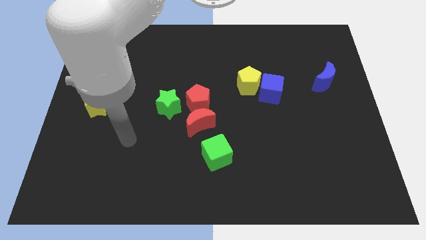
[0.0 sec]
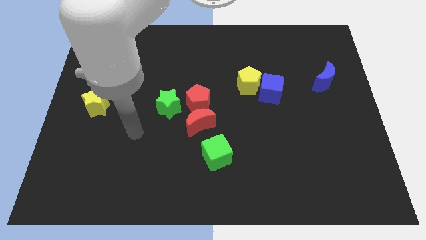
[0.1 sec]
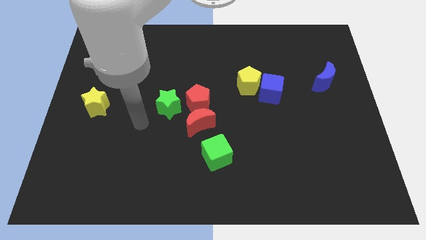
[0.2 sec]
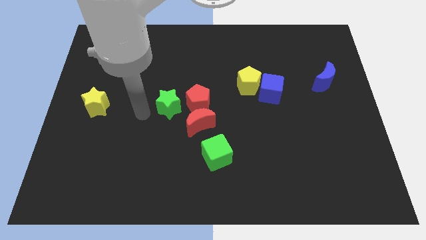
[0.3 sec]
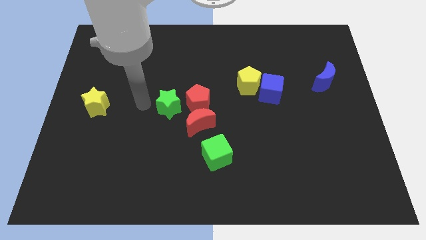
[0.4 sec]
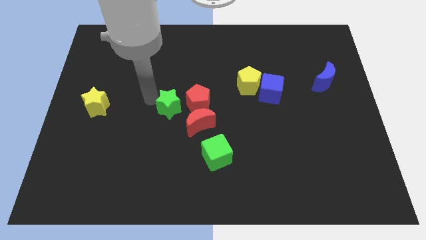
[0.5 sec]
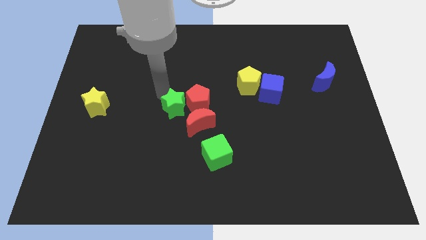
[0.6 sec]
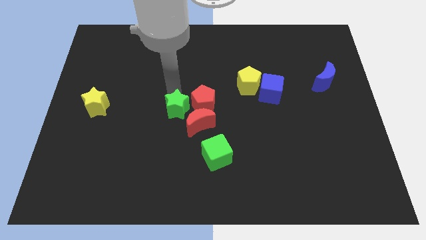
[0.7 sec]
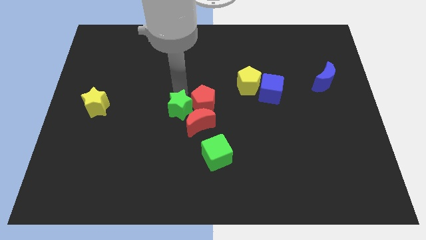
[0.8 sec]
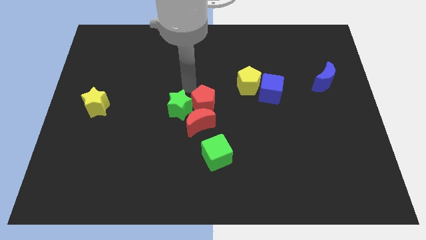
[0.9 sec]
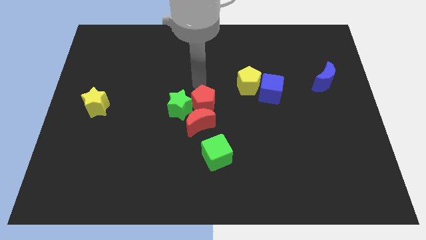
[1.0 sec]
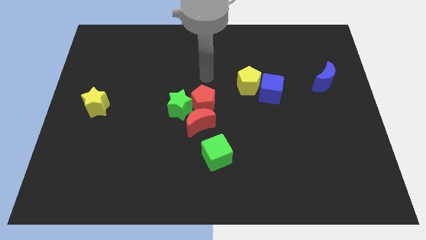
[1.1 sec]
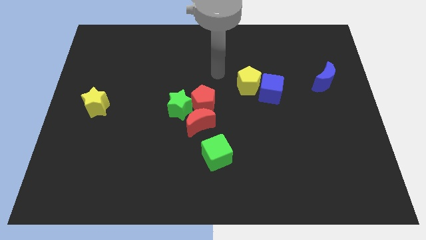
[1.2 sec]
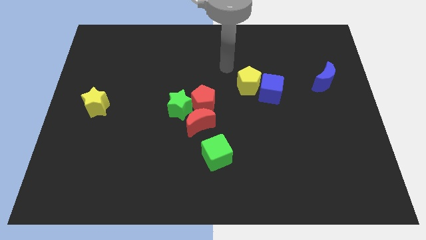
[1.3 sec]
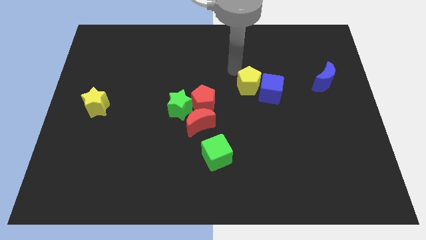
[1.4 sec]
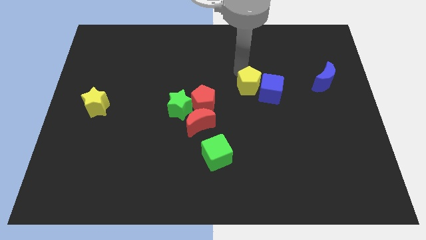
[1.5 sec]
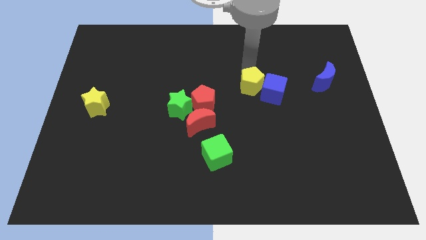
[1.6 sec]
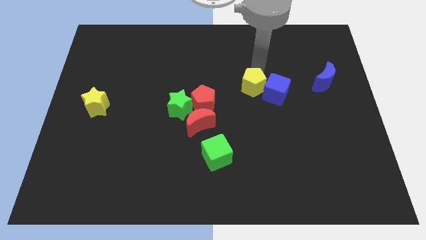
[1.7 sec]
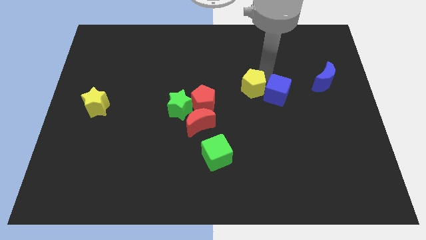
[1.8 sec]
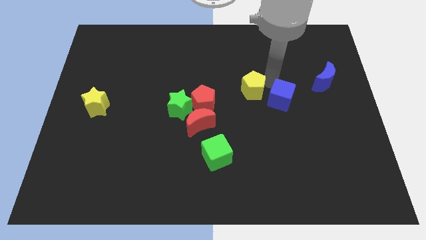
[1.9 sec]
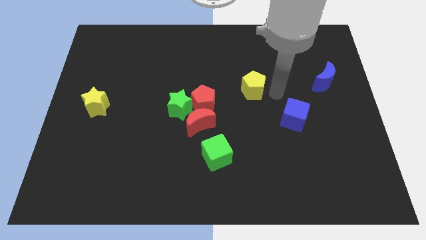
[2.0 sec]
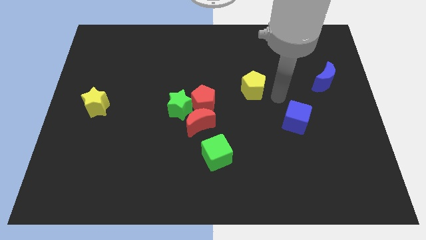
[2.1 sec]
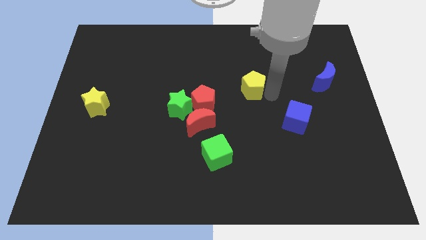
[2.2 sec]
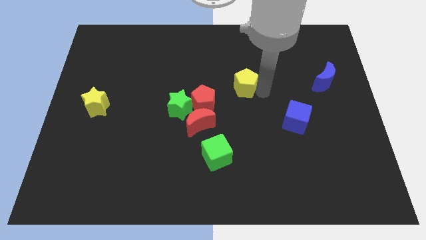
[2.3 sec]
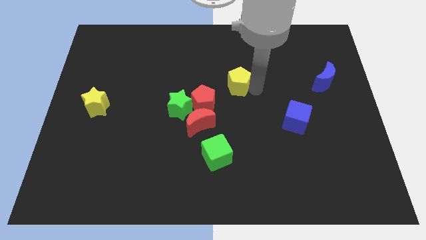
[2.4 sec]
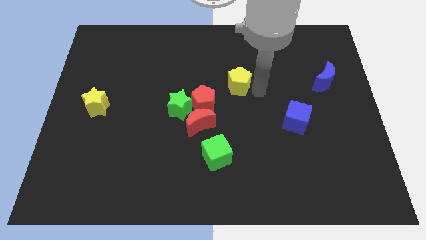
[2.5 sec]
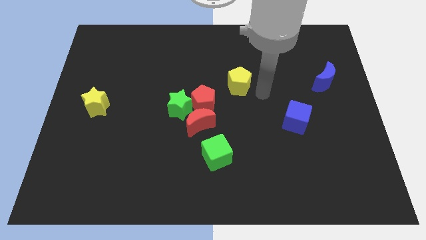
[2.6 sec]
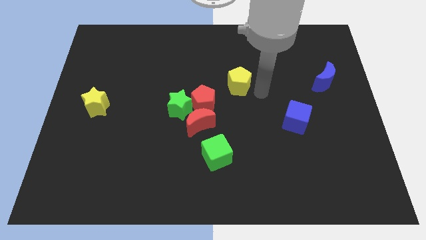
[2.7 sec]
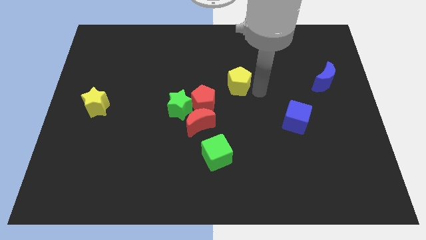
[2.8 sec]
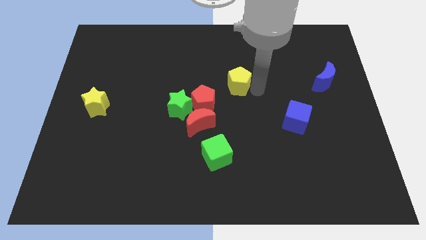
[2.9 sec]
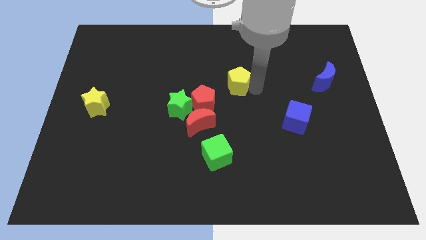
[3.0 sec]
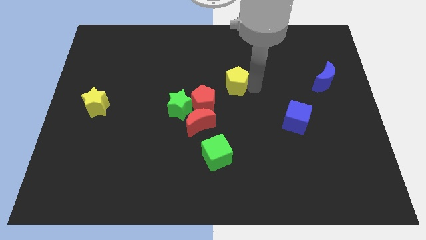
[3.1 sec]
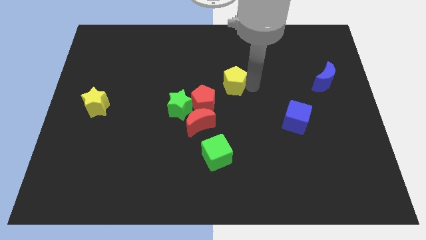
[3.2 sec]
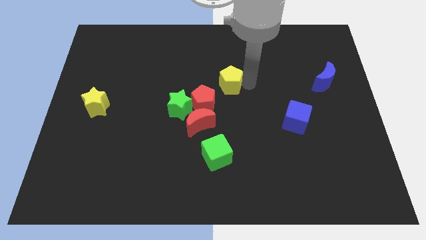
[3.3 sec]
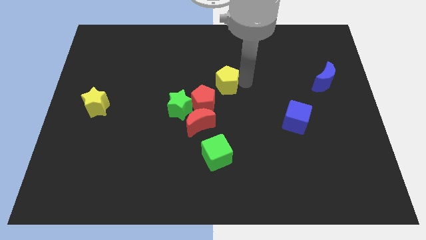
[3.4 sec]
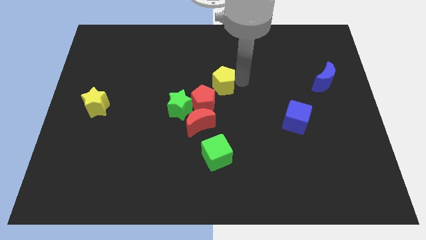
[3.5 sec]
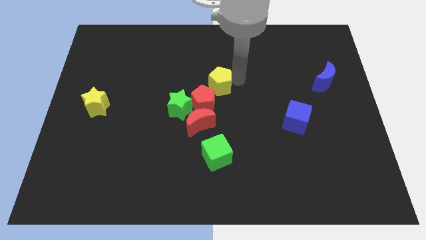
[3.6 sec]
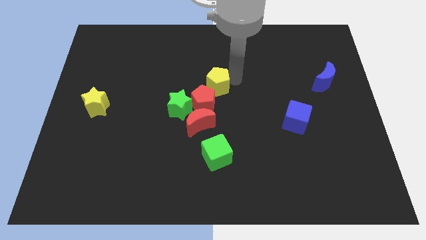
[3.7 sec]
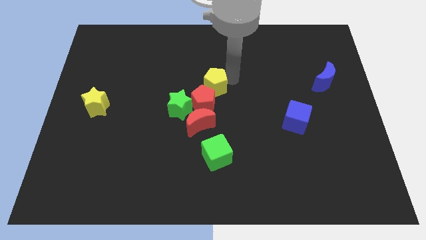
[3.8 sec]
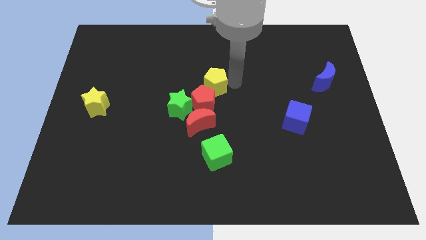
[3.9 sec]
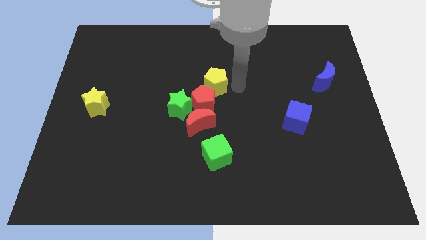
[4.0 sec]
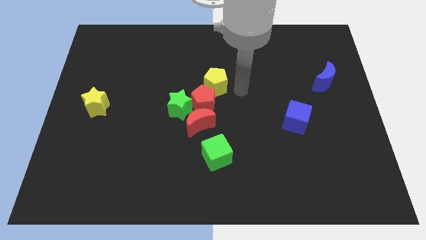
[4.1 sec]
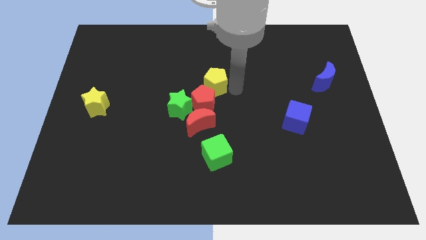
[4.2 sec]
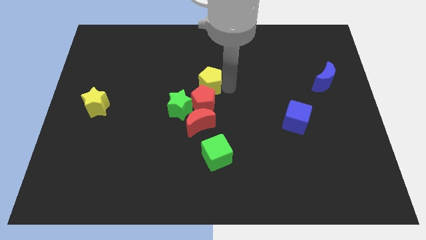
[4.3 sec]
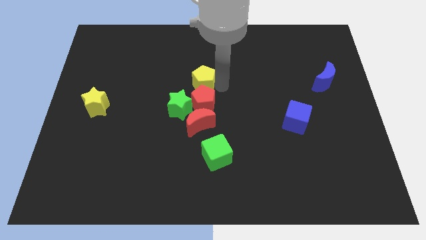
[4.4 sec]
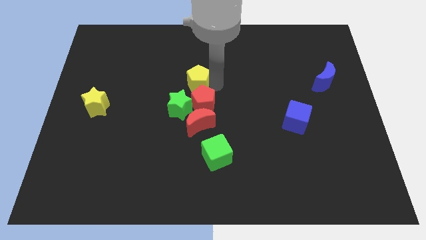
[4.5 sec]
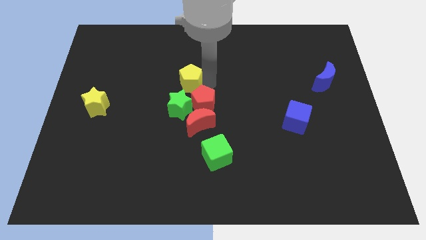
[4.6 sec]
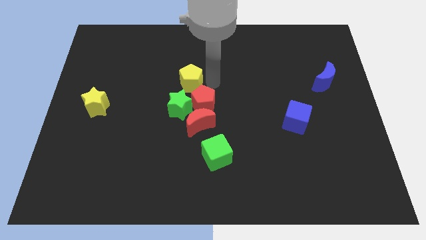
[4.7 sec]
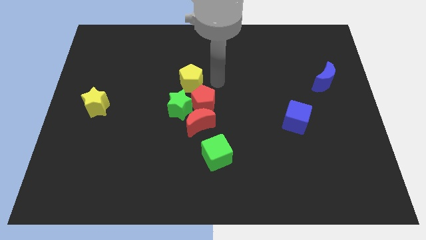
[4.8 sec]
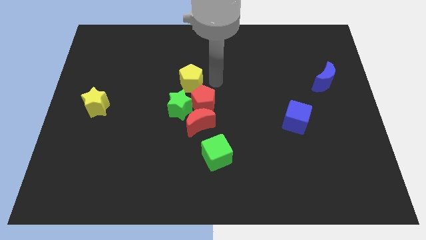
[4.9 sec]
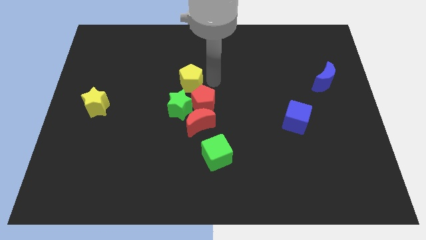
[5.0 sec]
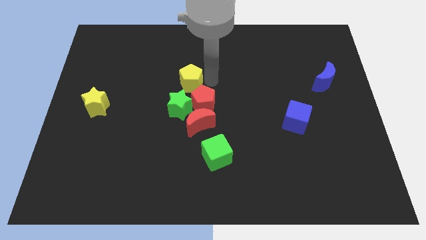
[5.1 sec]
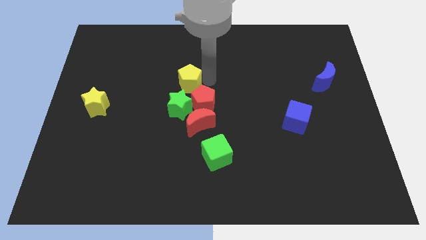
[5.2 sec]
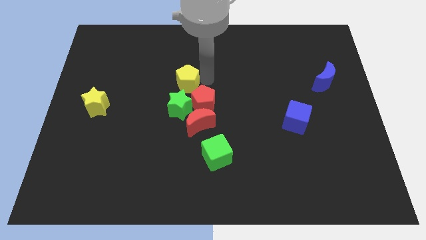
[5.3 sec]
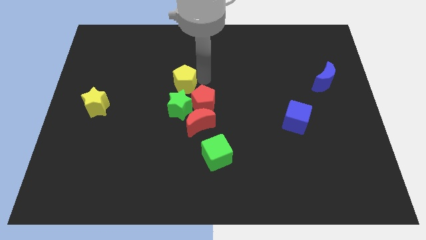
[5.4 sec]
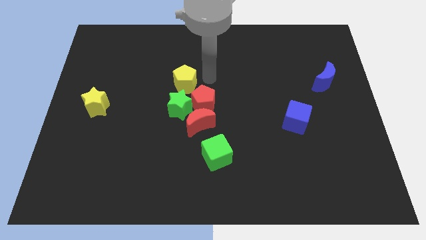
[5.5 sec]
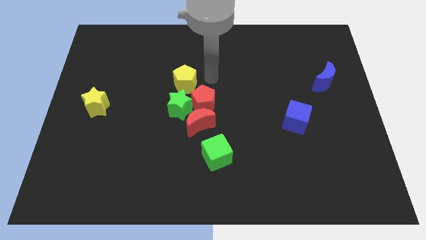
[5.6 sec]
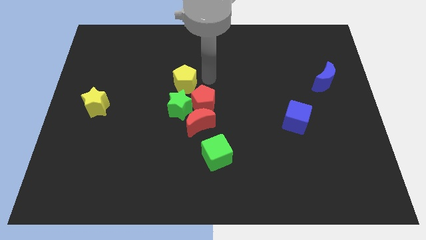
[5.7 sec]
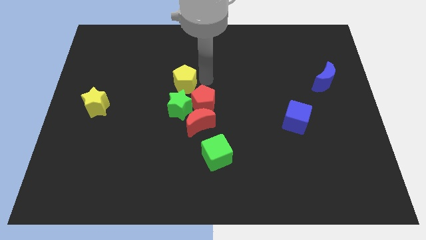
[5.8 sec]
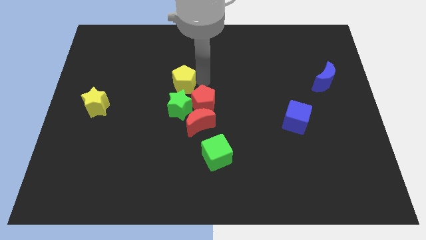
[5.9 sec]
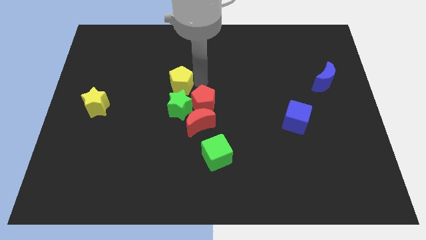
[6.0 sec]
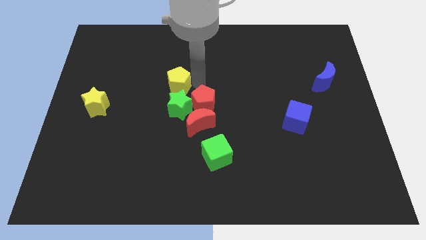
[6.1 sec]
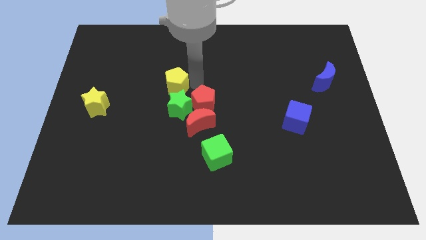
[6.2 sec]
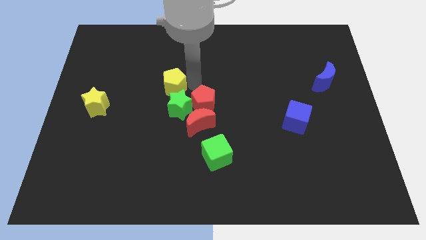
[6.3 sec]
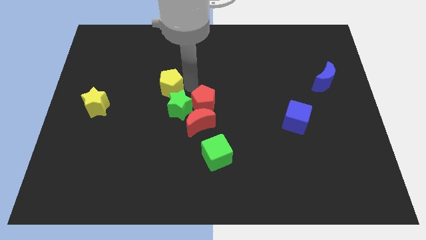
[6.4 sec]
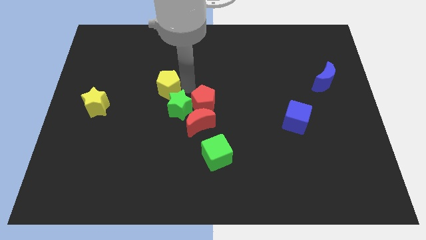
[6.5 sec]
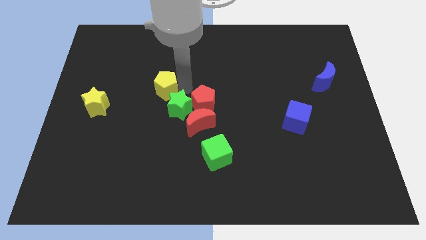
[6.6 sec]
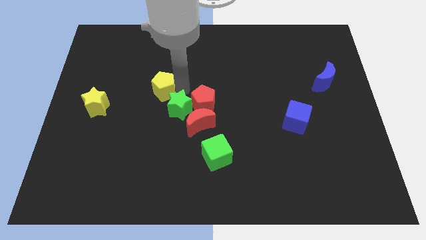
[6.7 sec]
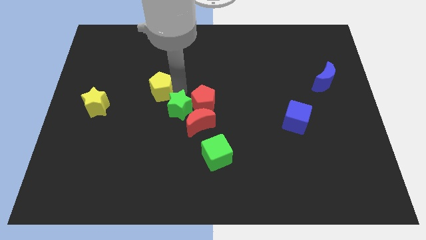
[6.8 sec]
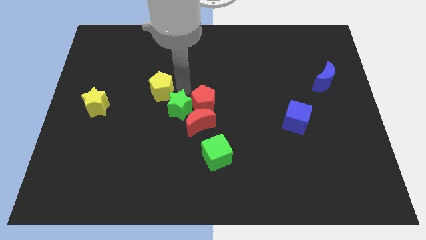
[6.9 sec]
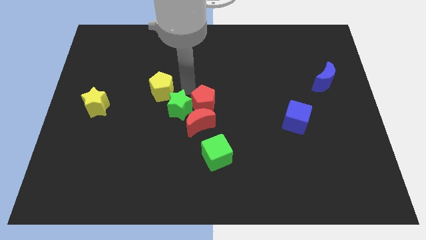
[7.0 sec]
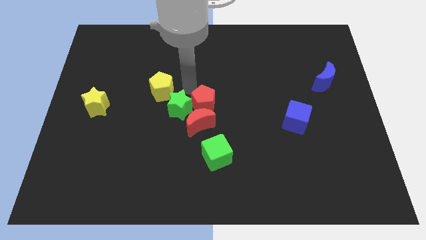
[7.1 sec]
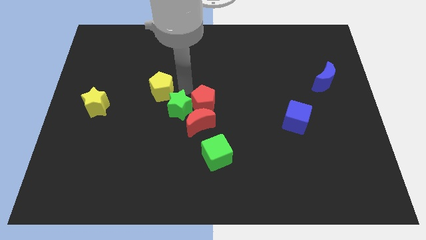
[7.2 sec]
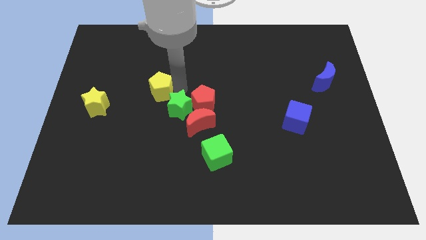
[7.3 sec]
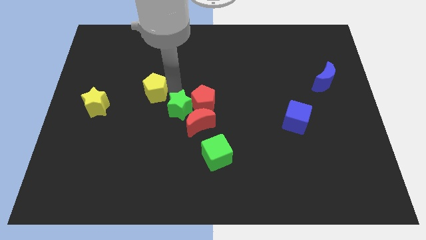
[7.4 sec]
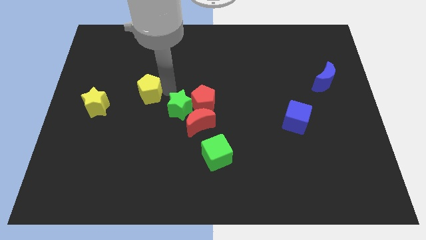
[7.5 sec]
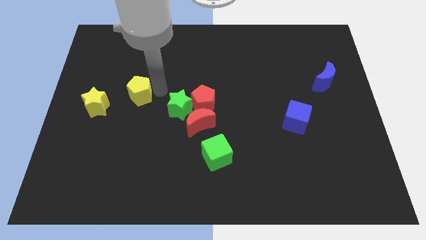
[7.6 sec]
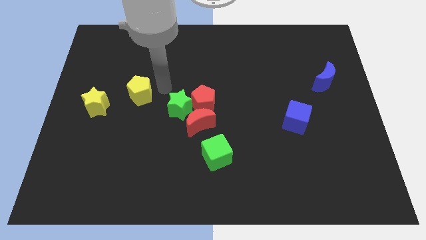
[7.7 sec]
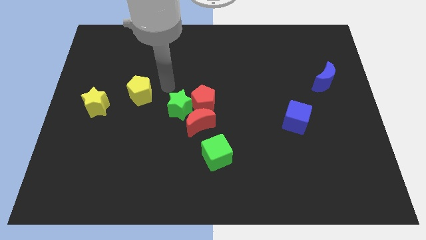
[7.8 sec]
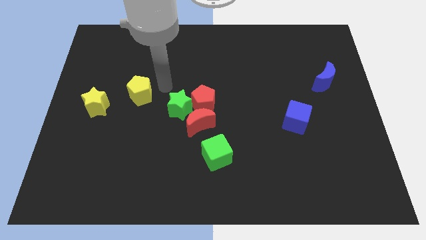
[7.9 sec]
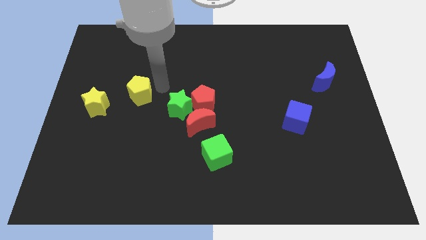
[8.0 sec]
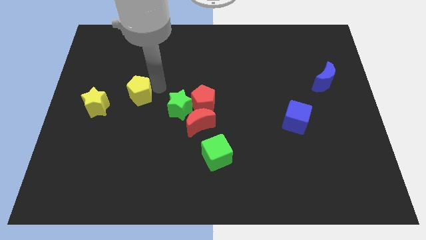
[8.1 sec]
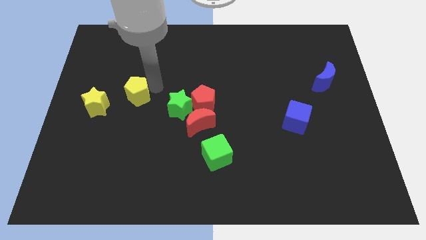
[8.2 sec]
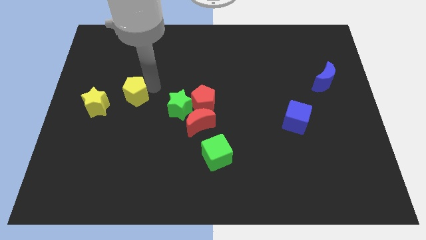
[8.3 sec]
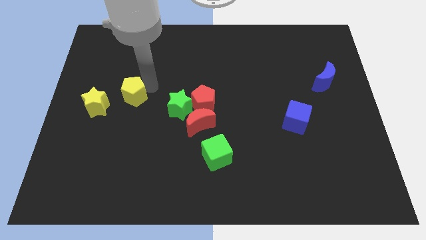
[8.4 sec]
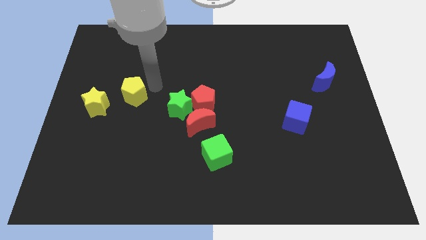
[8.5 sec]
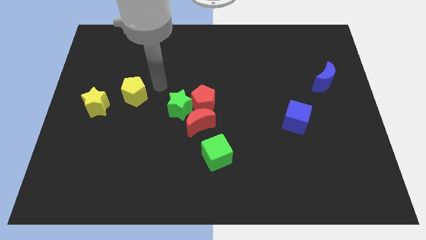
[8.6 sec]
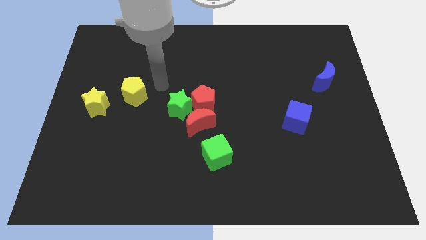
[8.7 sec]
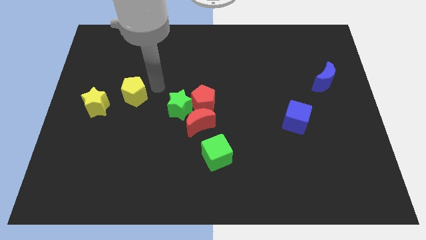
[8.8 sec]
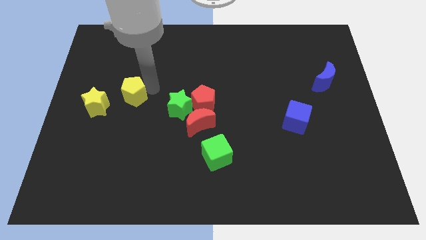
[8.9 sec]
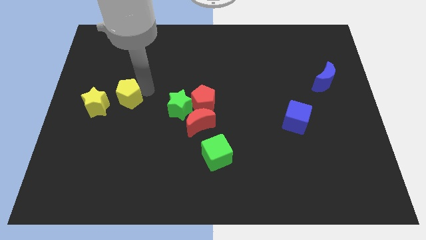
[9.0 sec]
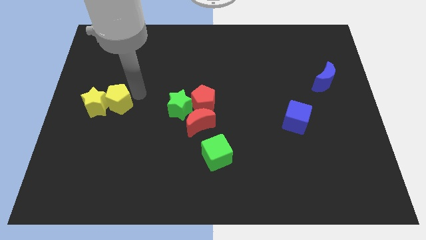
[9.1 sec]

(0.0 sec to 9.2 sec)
put the yellow pentagon to the yellow star
